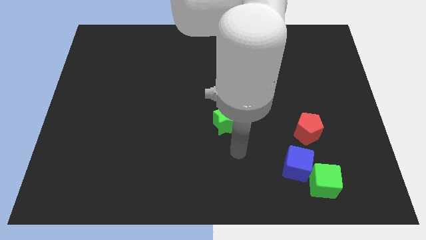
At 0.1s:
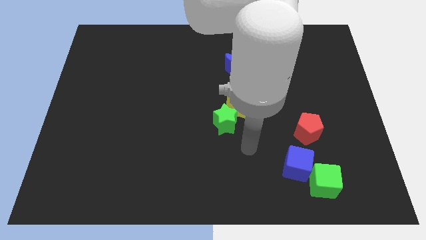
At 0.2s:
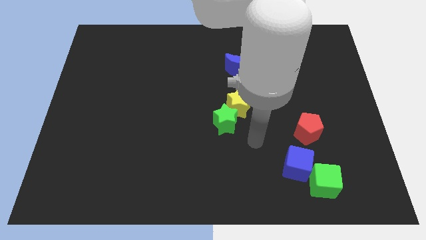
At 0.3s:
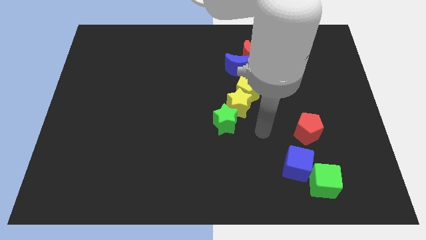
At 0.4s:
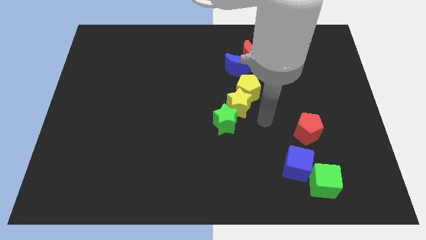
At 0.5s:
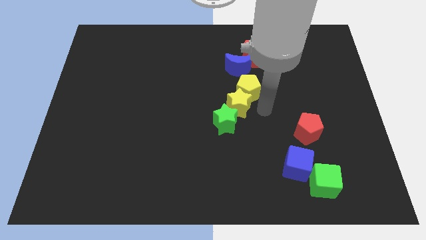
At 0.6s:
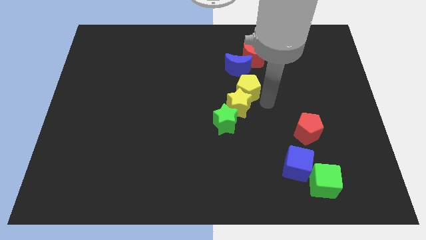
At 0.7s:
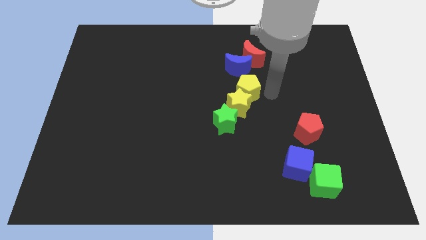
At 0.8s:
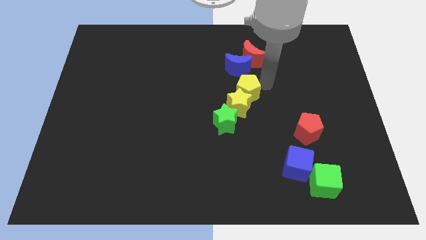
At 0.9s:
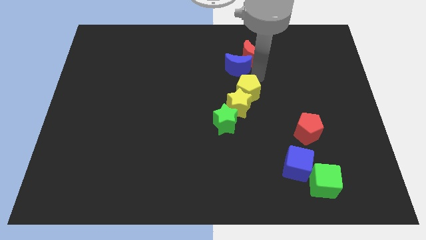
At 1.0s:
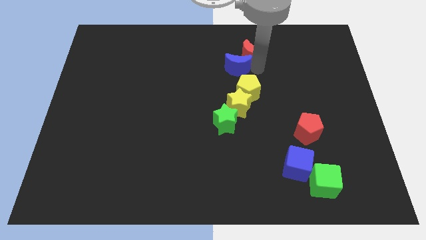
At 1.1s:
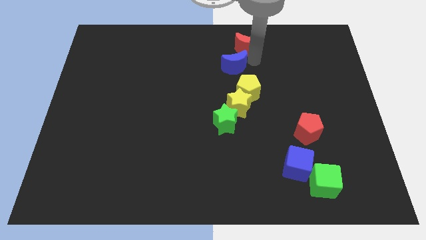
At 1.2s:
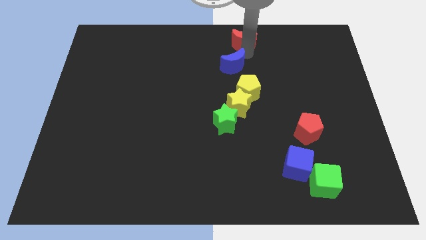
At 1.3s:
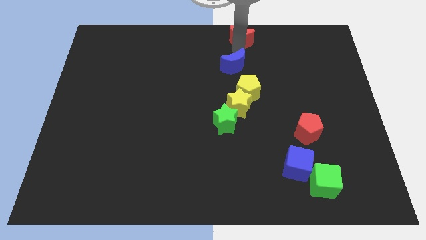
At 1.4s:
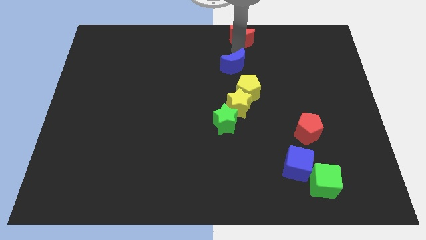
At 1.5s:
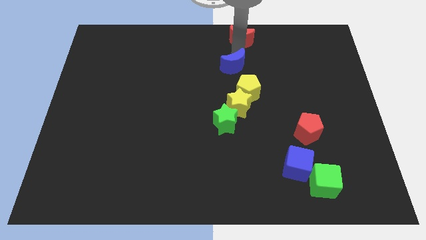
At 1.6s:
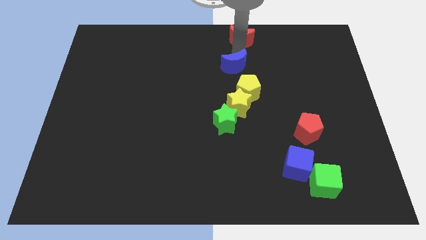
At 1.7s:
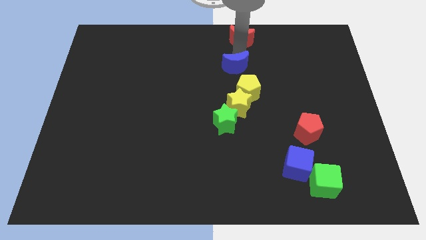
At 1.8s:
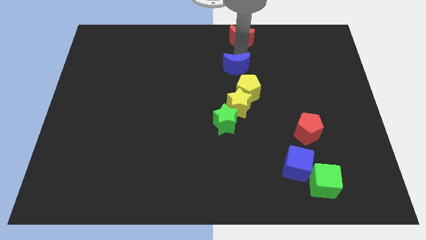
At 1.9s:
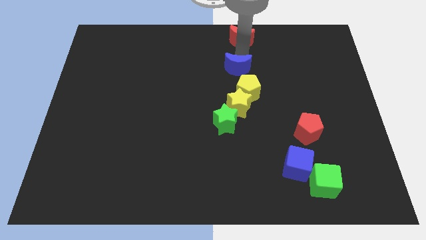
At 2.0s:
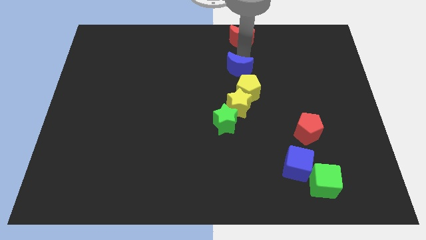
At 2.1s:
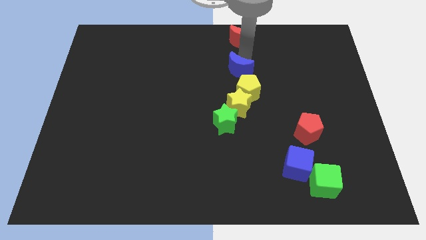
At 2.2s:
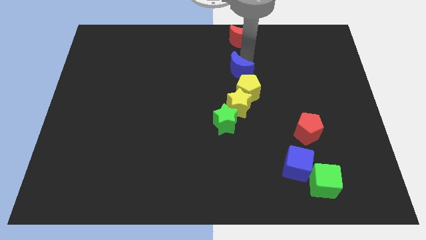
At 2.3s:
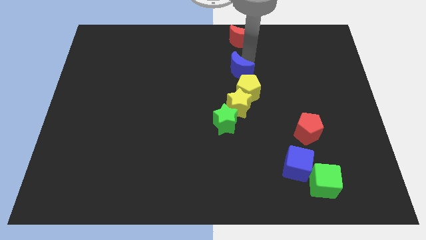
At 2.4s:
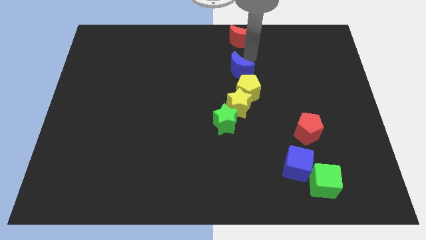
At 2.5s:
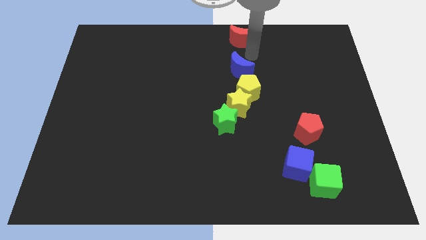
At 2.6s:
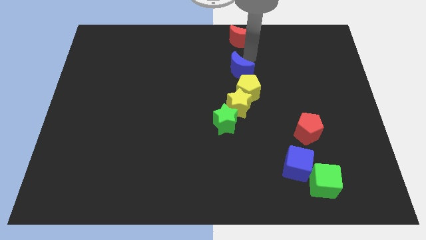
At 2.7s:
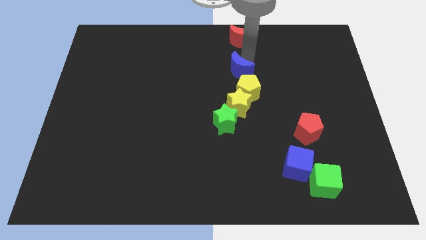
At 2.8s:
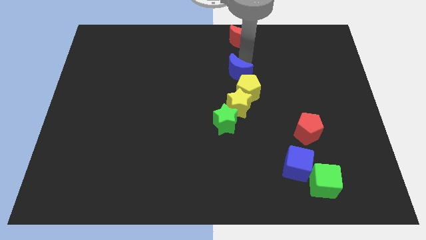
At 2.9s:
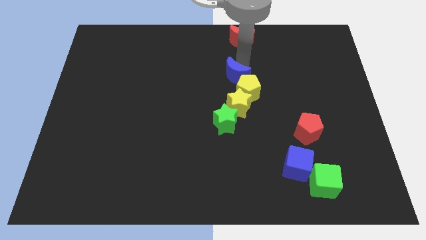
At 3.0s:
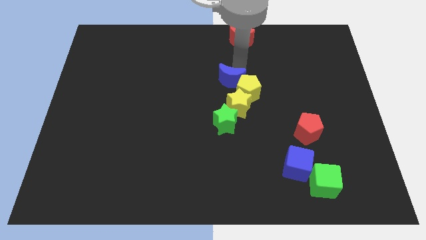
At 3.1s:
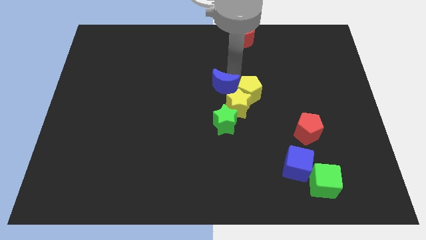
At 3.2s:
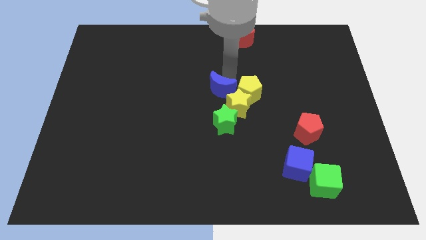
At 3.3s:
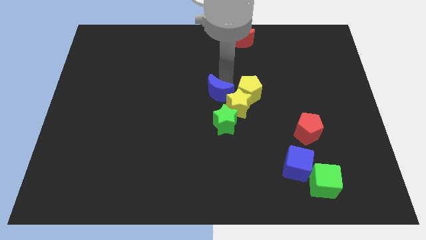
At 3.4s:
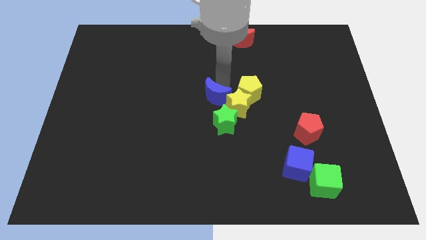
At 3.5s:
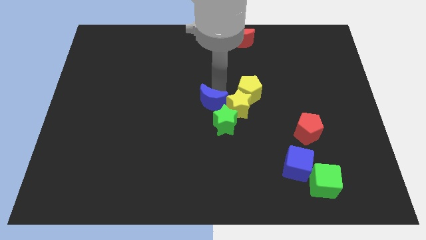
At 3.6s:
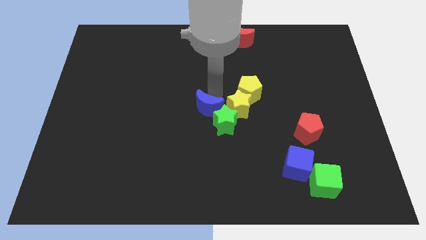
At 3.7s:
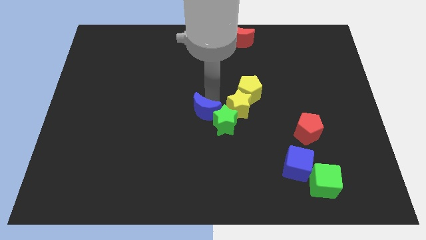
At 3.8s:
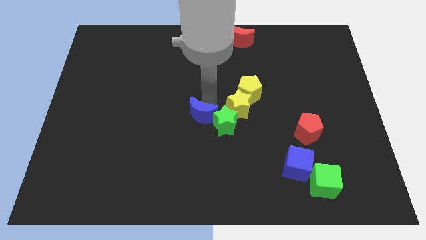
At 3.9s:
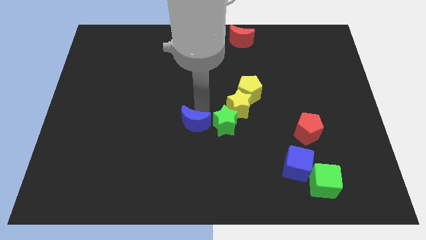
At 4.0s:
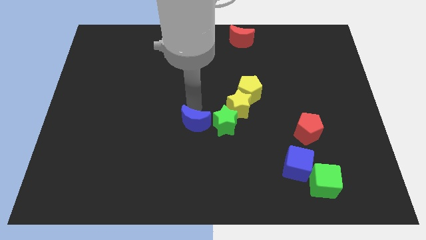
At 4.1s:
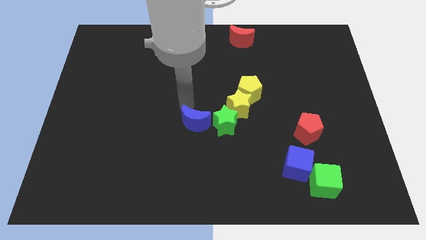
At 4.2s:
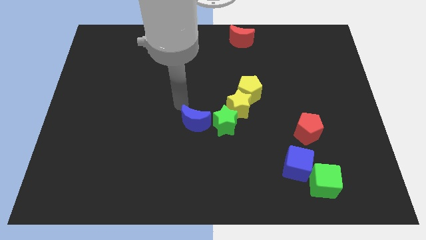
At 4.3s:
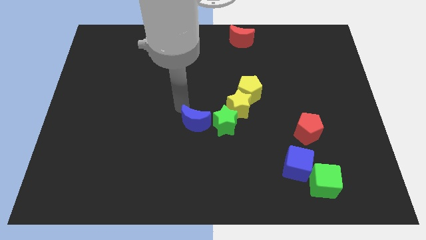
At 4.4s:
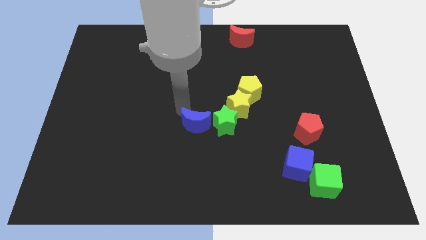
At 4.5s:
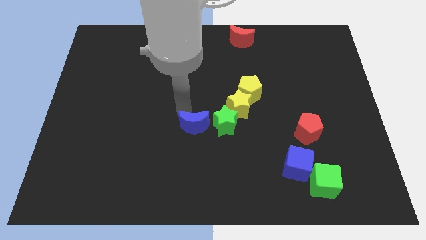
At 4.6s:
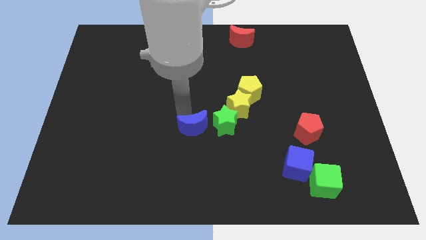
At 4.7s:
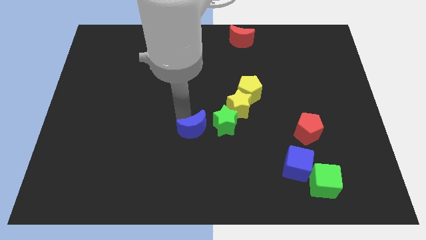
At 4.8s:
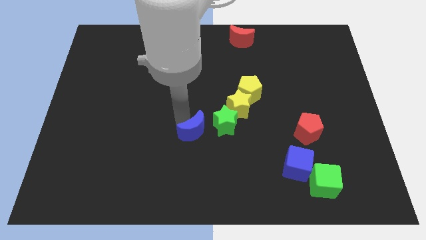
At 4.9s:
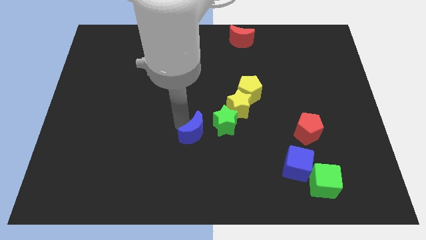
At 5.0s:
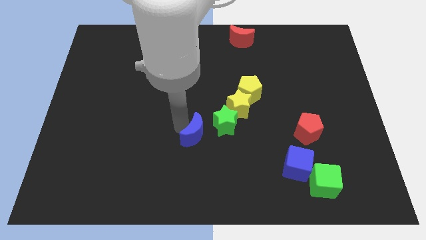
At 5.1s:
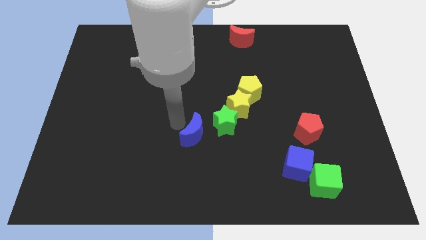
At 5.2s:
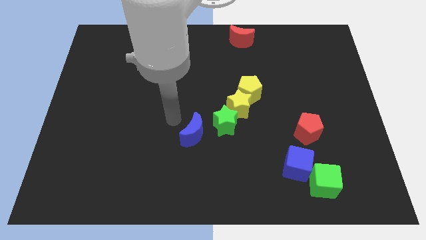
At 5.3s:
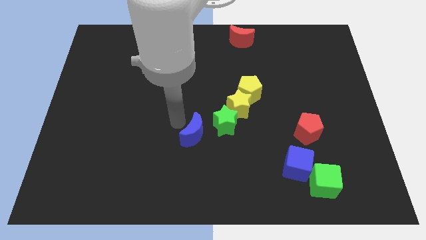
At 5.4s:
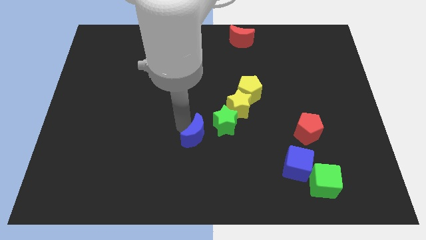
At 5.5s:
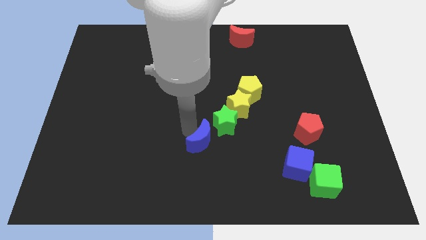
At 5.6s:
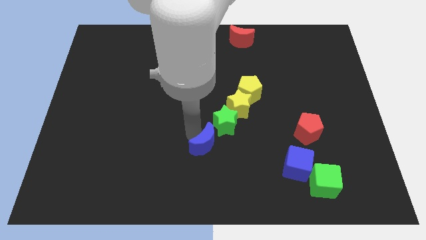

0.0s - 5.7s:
push the blue moon down

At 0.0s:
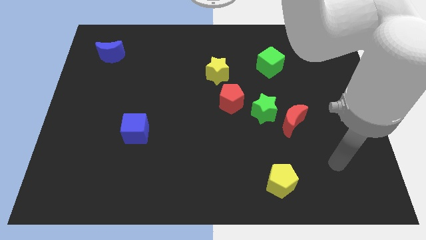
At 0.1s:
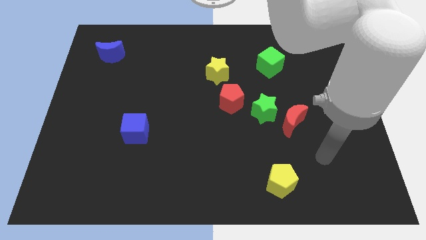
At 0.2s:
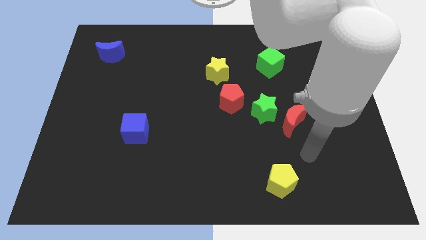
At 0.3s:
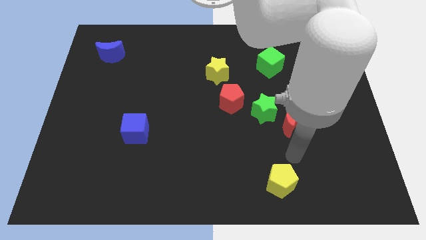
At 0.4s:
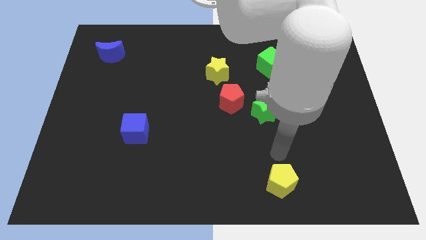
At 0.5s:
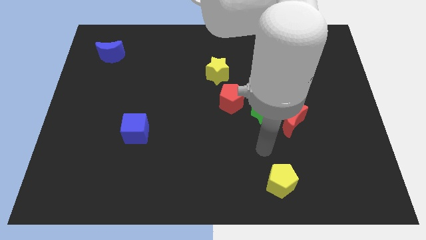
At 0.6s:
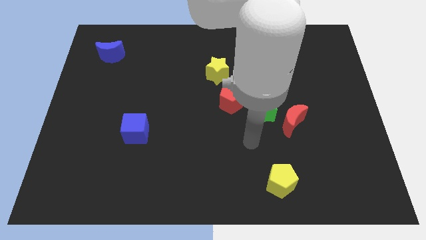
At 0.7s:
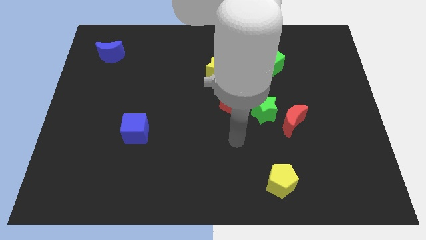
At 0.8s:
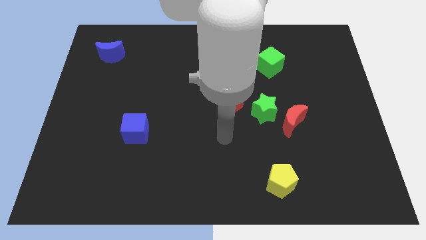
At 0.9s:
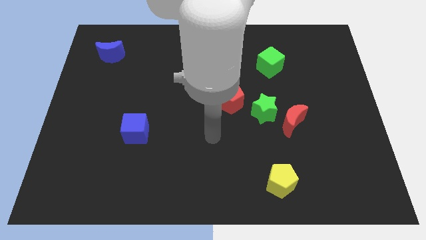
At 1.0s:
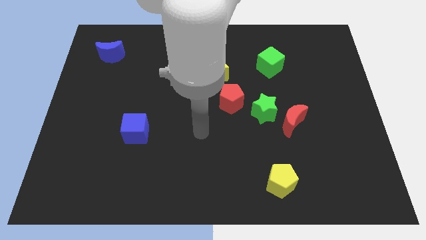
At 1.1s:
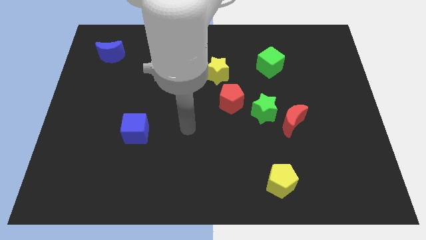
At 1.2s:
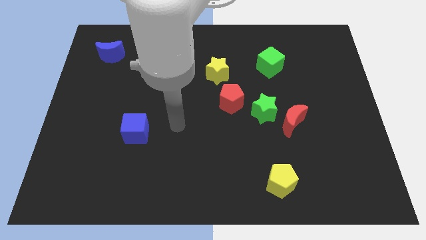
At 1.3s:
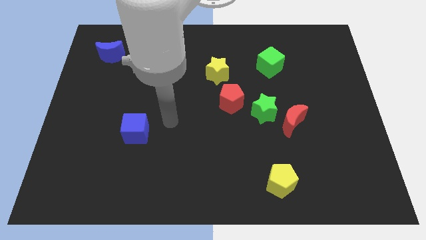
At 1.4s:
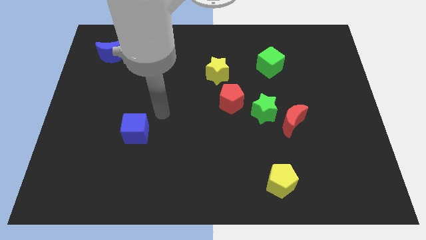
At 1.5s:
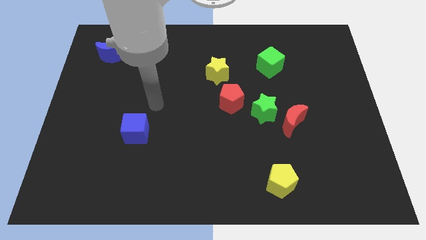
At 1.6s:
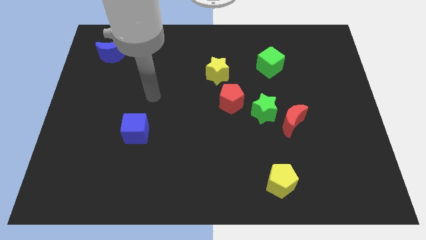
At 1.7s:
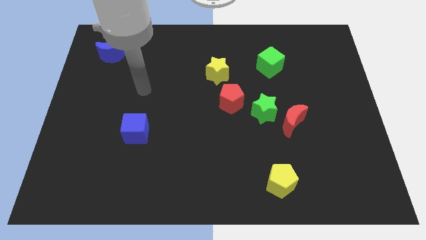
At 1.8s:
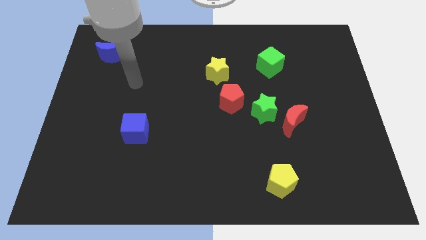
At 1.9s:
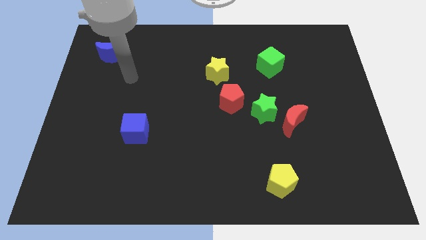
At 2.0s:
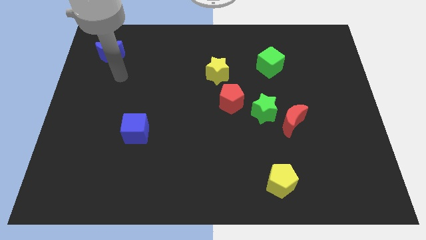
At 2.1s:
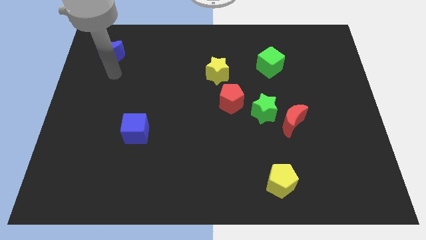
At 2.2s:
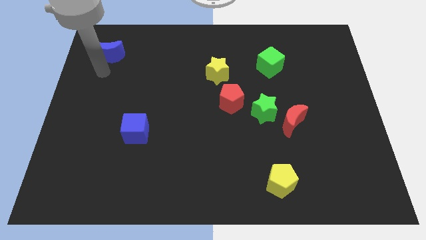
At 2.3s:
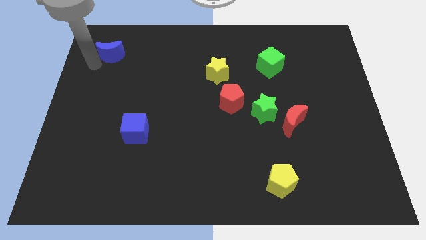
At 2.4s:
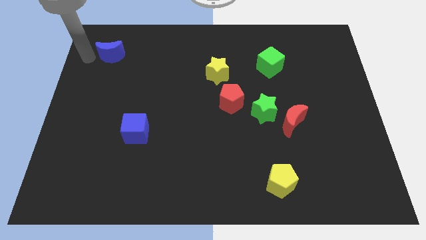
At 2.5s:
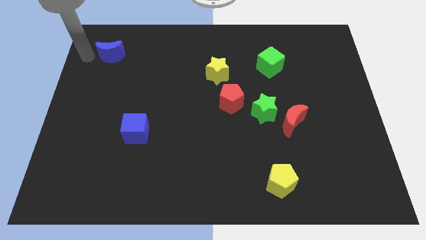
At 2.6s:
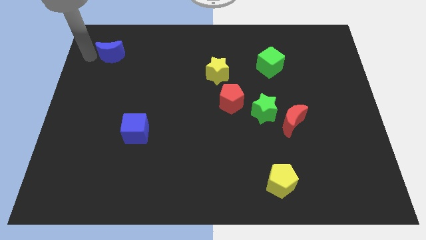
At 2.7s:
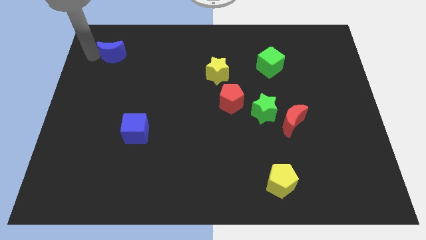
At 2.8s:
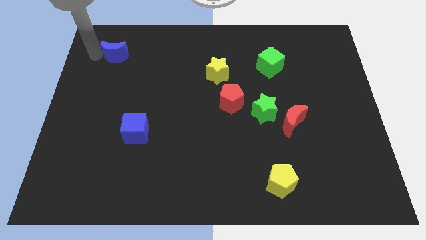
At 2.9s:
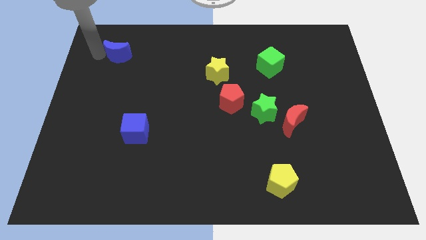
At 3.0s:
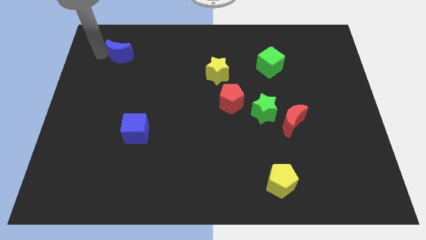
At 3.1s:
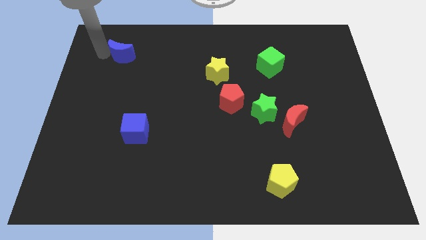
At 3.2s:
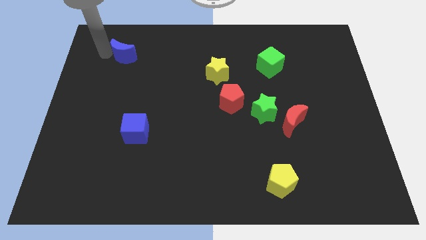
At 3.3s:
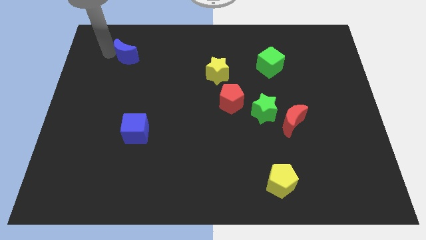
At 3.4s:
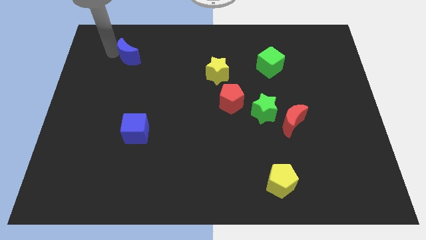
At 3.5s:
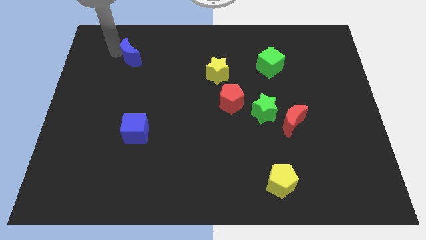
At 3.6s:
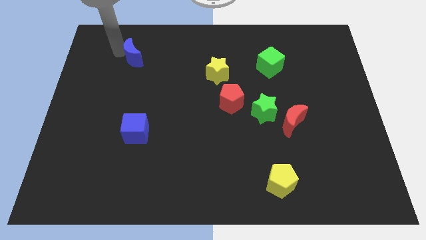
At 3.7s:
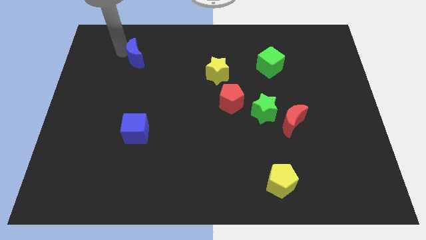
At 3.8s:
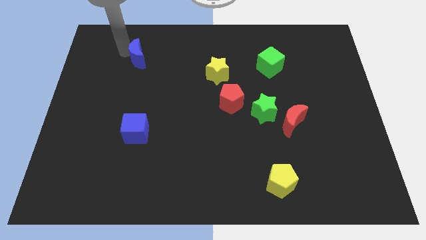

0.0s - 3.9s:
push the blue moon right a little
